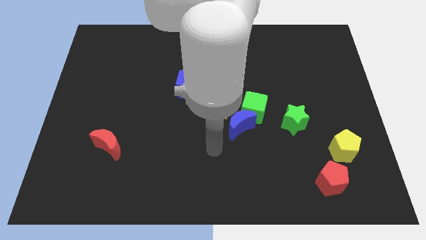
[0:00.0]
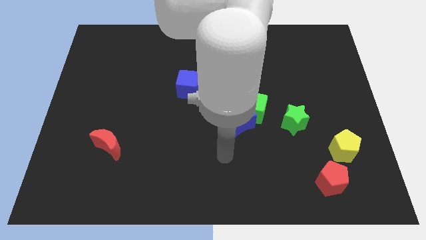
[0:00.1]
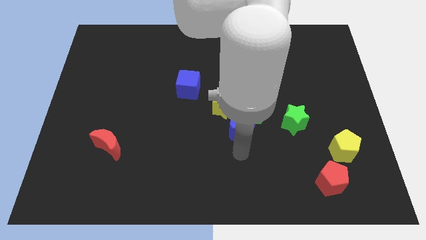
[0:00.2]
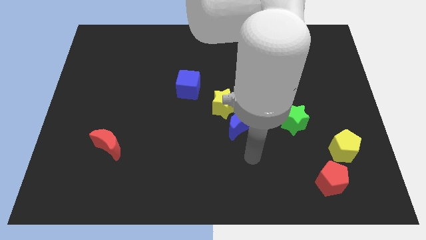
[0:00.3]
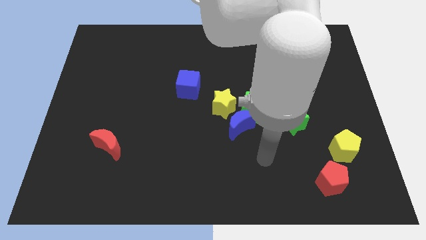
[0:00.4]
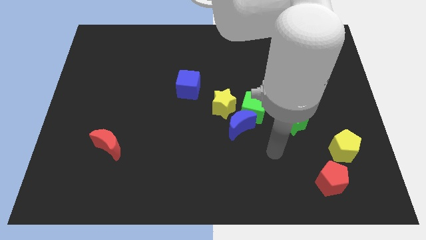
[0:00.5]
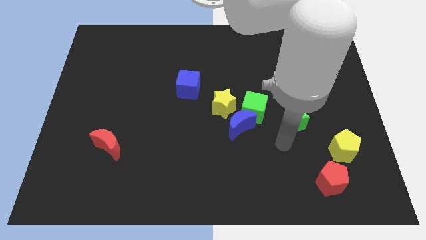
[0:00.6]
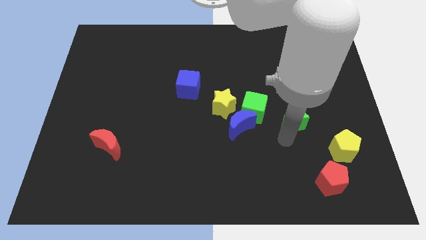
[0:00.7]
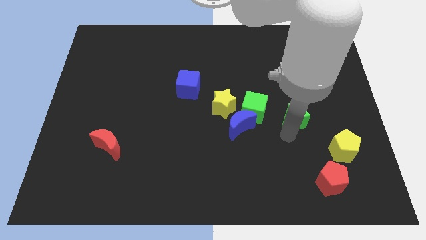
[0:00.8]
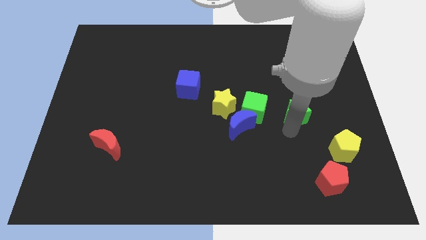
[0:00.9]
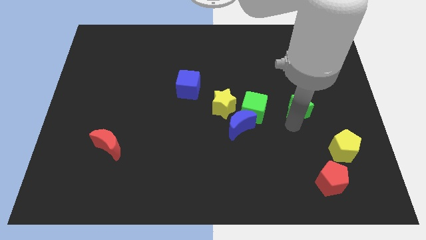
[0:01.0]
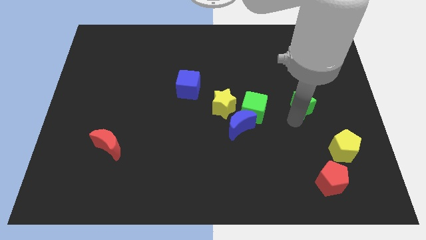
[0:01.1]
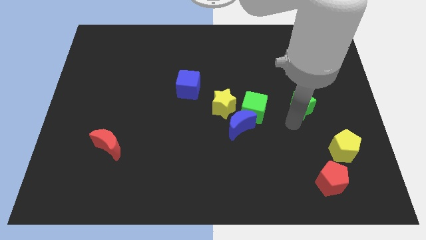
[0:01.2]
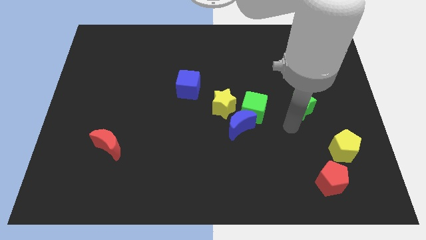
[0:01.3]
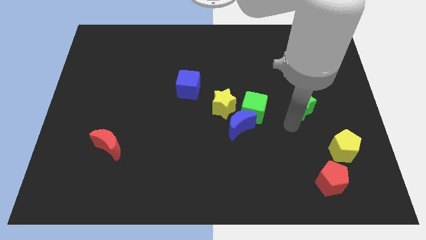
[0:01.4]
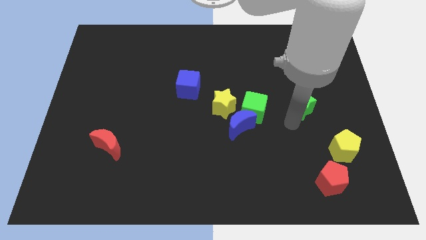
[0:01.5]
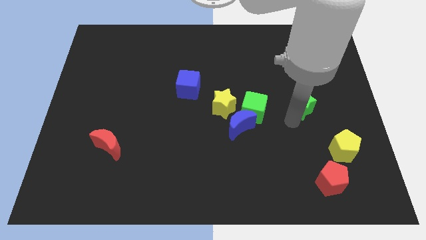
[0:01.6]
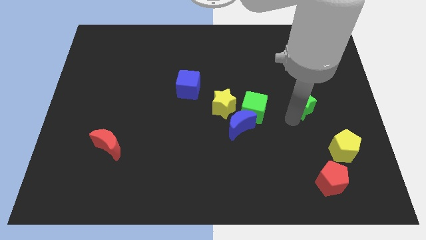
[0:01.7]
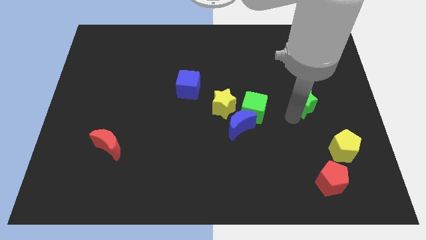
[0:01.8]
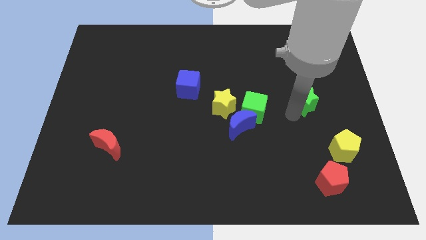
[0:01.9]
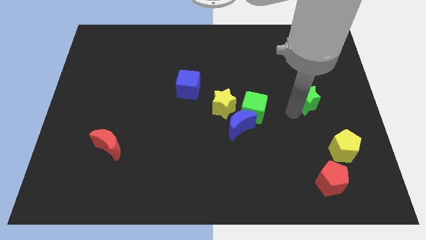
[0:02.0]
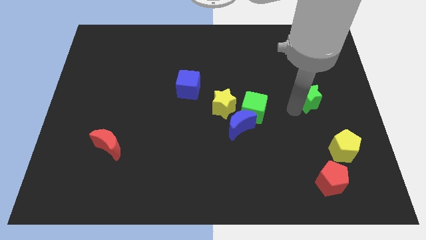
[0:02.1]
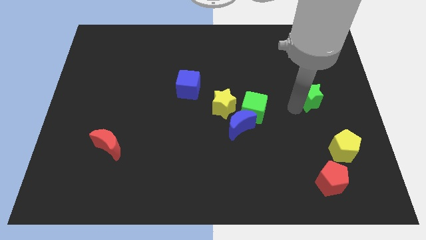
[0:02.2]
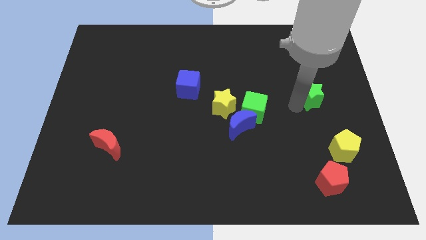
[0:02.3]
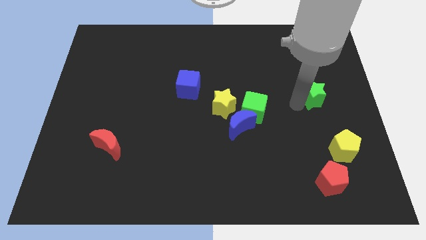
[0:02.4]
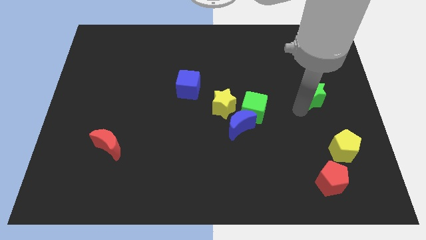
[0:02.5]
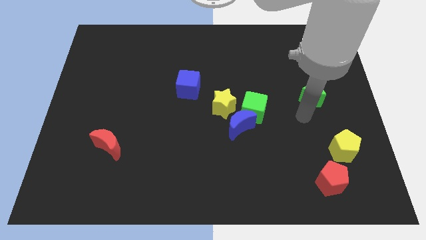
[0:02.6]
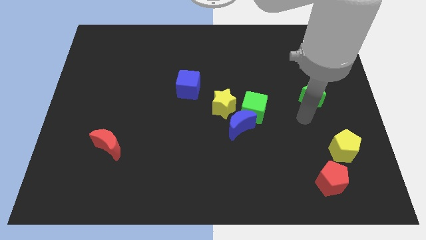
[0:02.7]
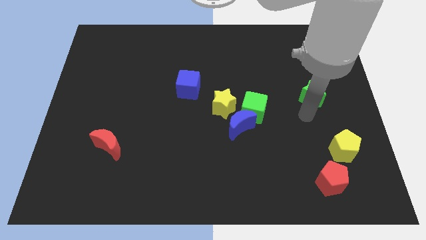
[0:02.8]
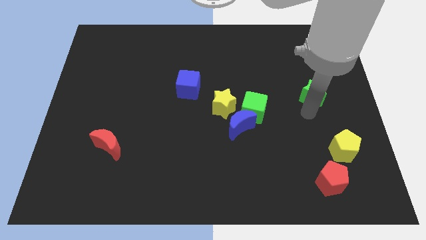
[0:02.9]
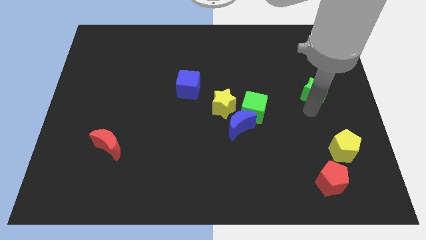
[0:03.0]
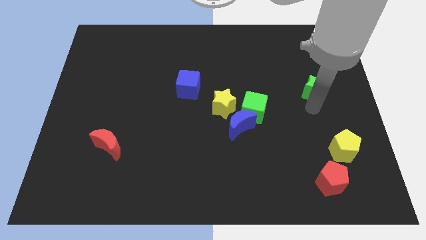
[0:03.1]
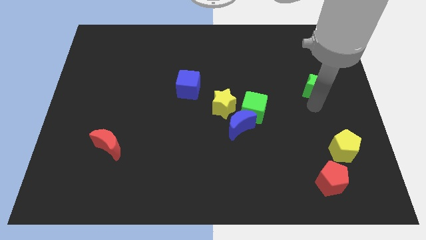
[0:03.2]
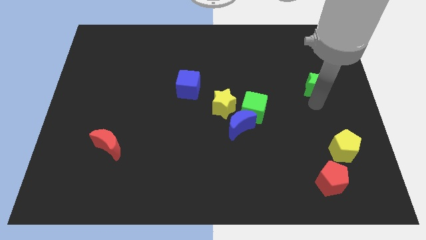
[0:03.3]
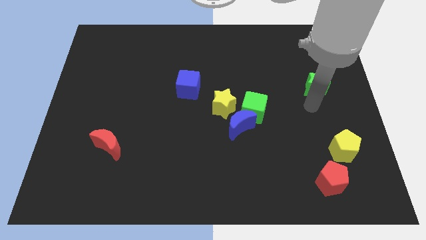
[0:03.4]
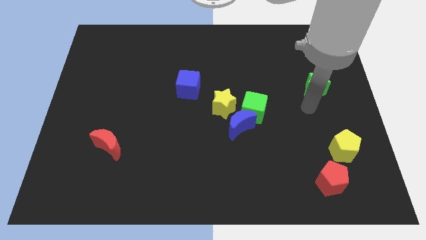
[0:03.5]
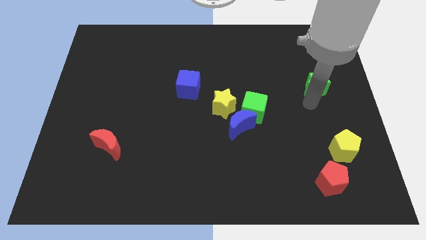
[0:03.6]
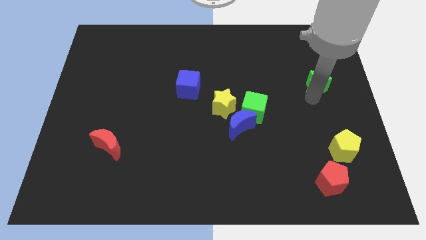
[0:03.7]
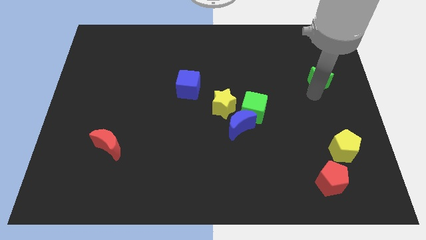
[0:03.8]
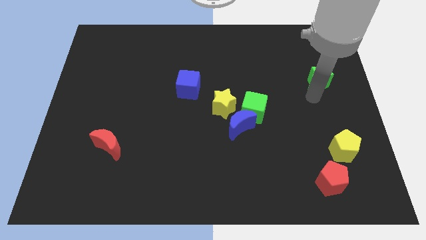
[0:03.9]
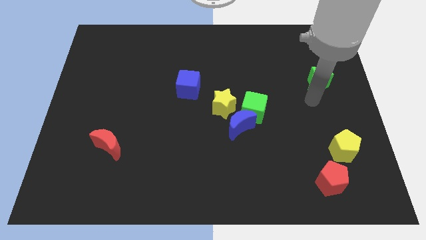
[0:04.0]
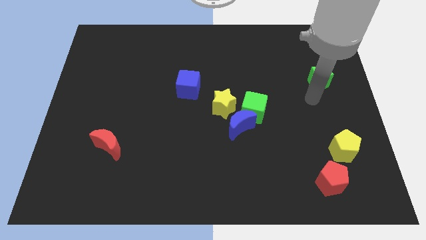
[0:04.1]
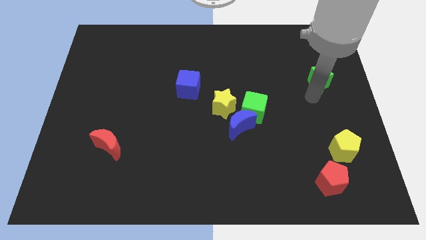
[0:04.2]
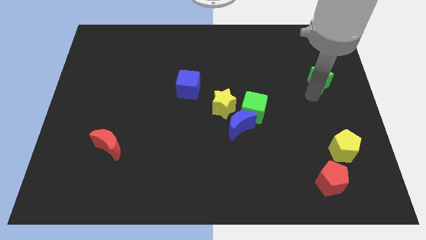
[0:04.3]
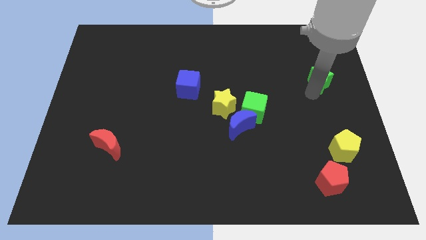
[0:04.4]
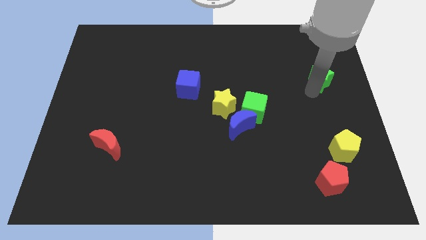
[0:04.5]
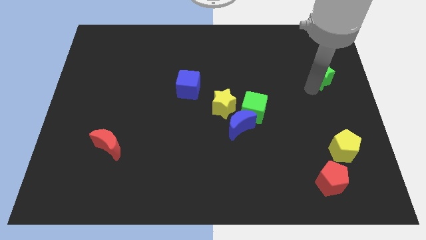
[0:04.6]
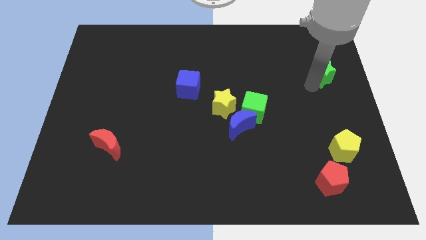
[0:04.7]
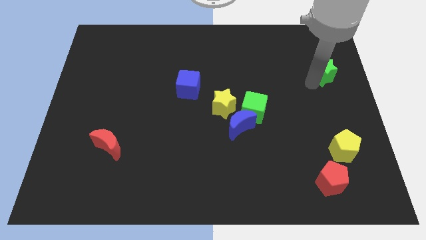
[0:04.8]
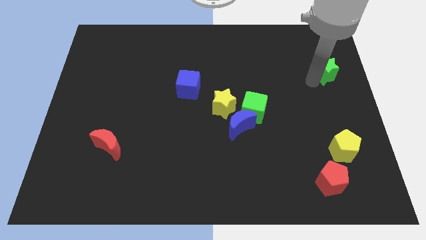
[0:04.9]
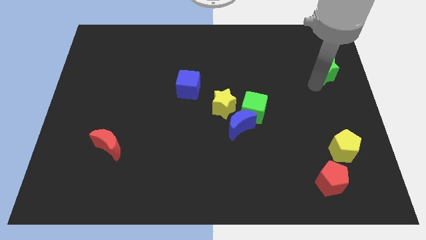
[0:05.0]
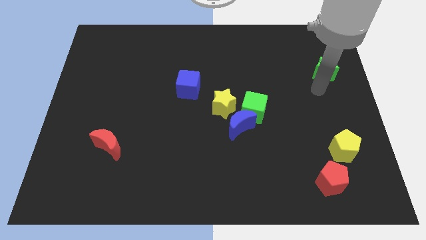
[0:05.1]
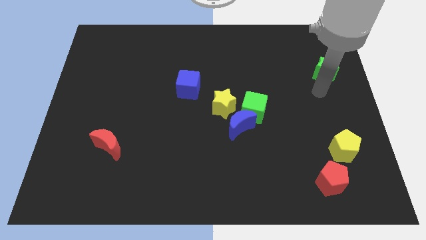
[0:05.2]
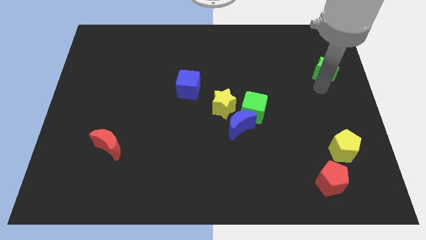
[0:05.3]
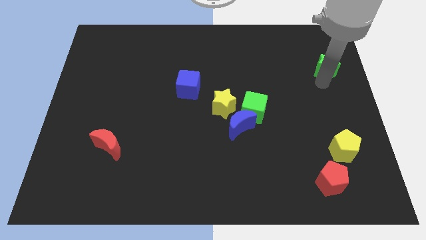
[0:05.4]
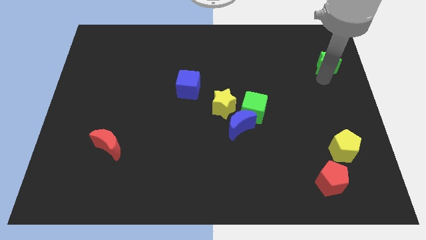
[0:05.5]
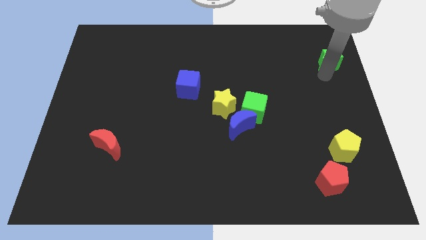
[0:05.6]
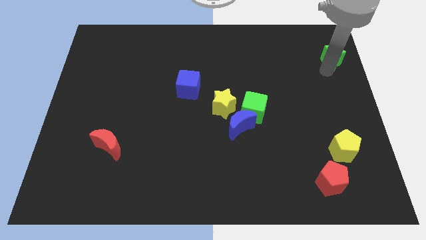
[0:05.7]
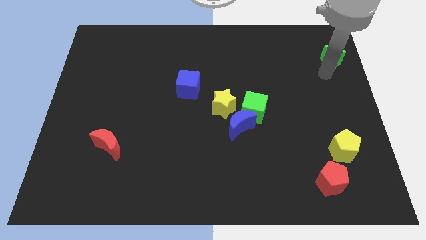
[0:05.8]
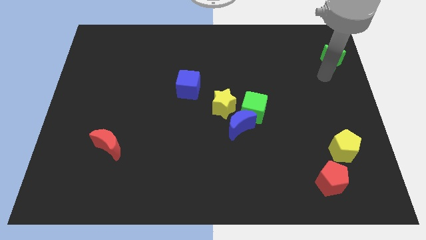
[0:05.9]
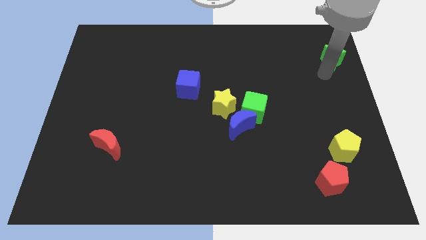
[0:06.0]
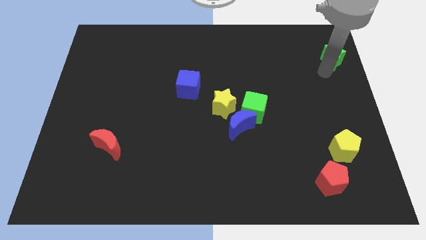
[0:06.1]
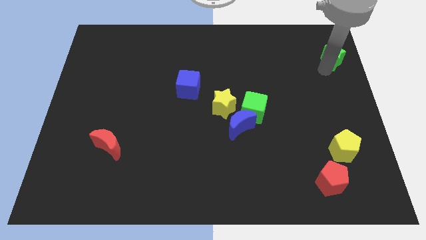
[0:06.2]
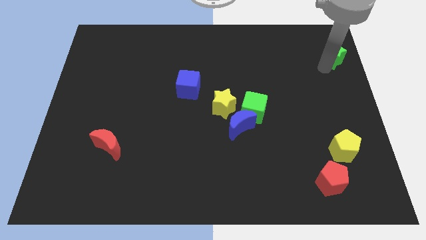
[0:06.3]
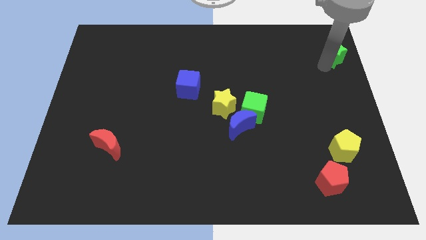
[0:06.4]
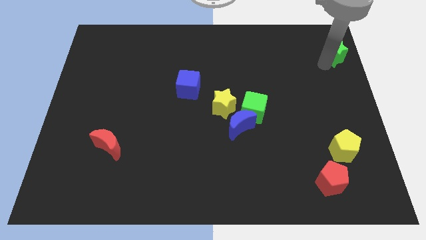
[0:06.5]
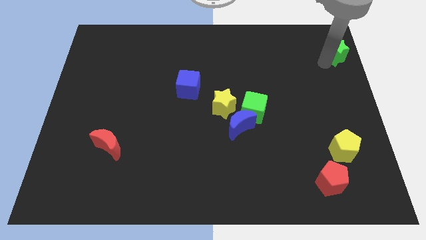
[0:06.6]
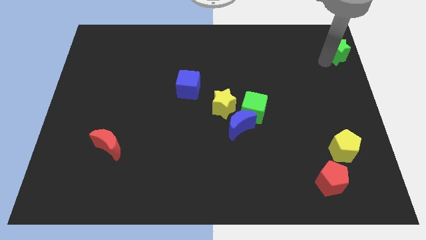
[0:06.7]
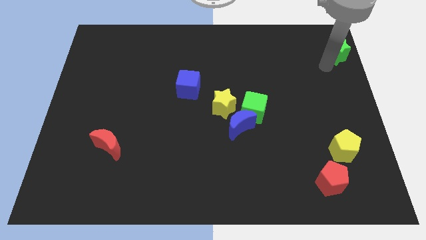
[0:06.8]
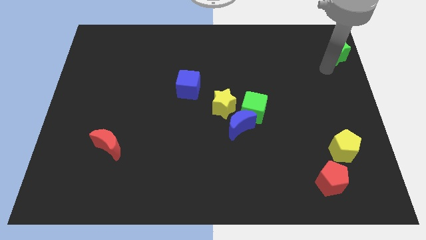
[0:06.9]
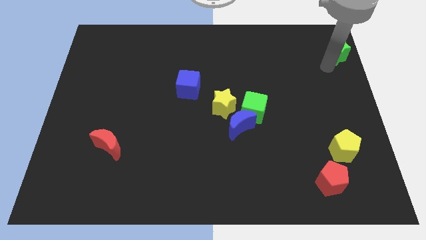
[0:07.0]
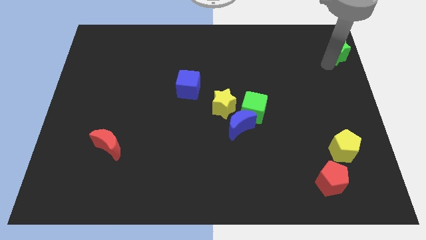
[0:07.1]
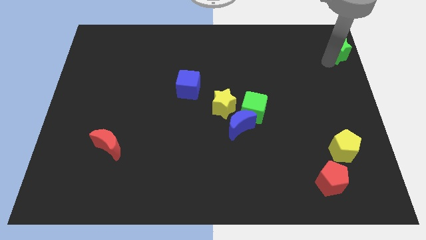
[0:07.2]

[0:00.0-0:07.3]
move the green star to the top right of the board

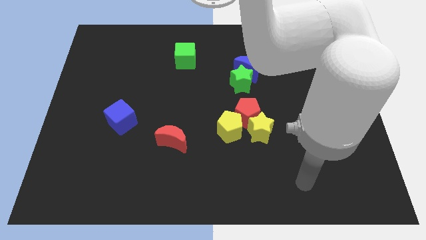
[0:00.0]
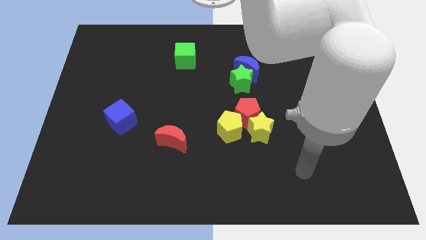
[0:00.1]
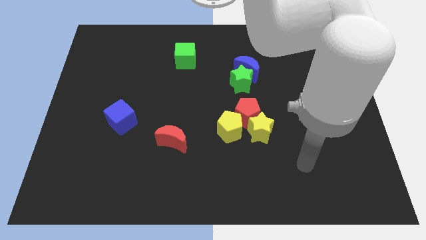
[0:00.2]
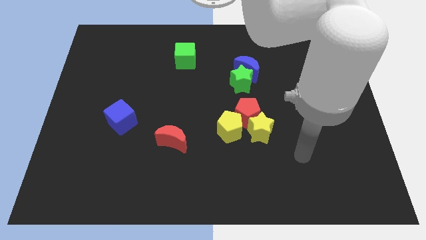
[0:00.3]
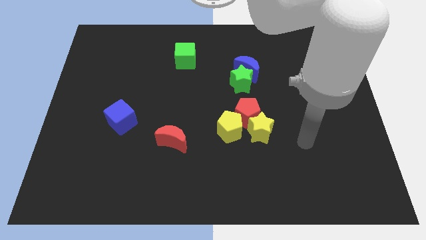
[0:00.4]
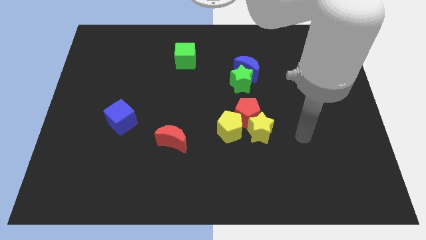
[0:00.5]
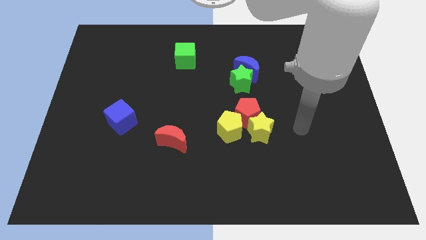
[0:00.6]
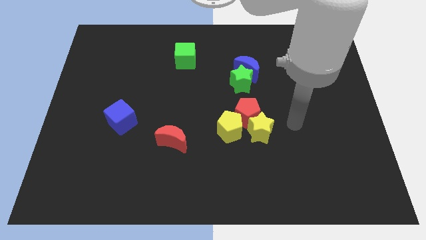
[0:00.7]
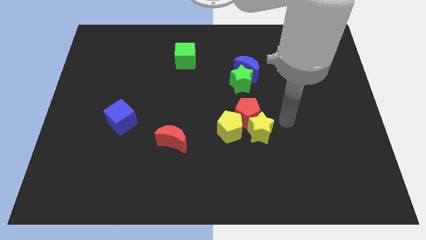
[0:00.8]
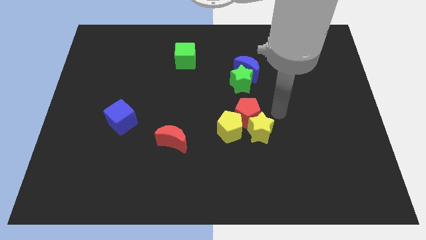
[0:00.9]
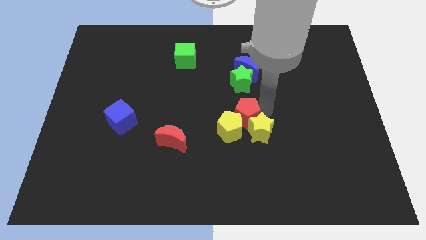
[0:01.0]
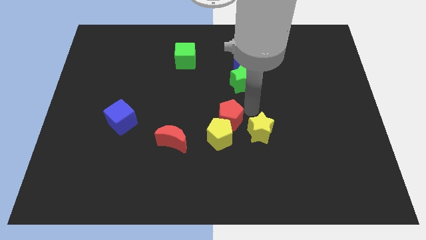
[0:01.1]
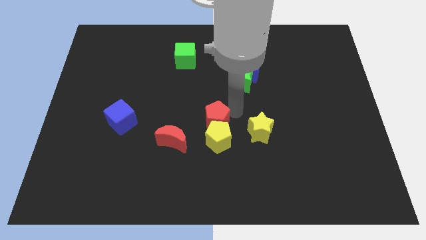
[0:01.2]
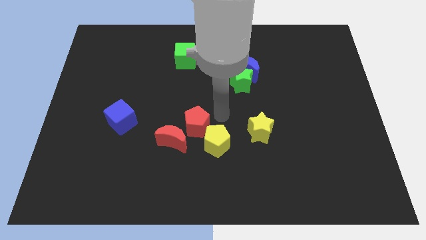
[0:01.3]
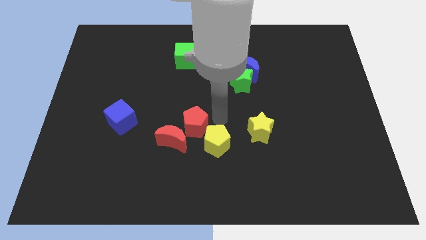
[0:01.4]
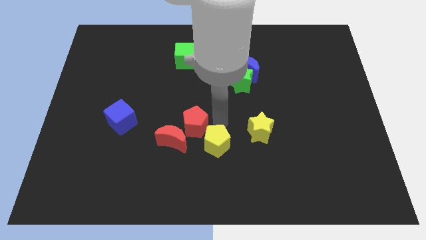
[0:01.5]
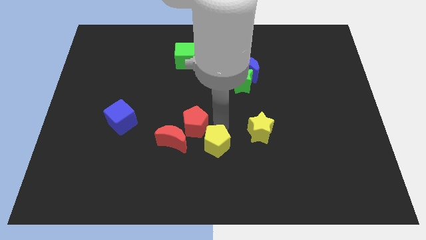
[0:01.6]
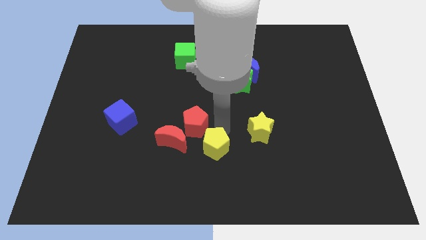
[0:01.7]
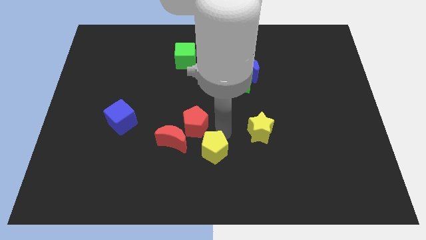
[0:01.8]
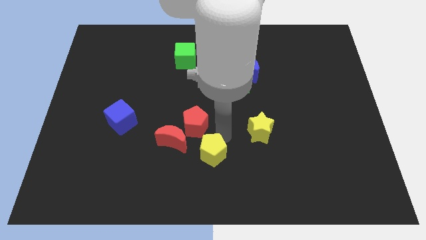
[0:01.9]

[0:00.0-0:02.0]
push the yellow pentagon to the bottom side
